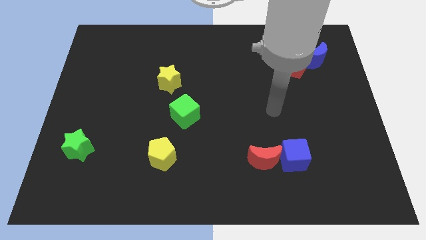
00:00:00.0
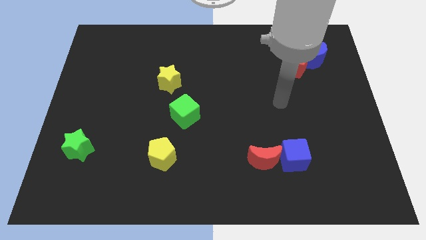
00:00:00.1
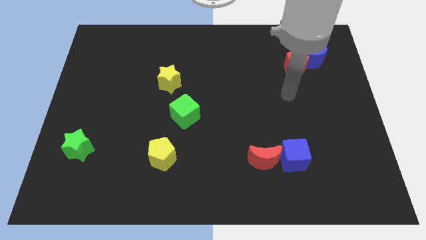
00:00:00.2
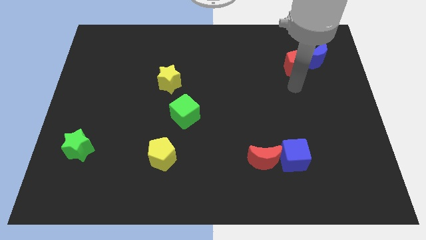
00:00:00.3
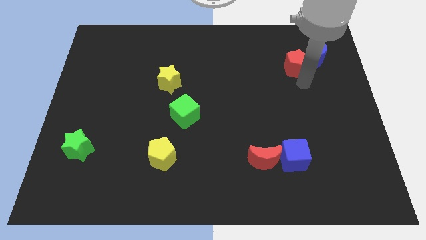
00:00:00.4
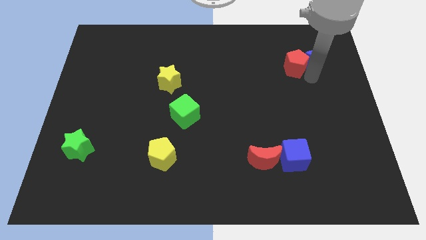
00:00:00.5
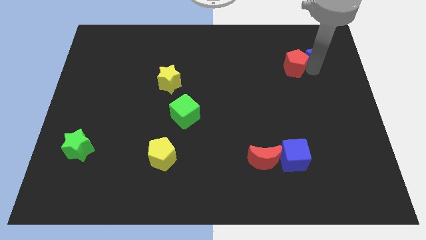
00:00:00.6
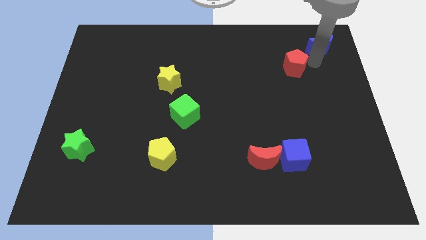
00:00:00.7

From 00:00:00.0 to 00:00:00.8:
pull the red pentagon apart from the blue moon

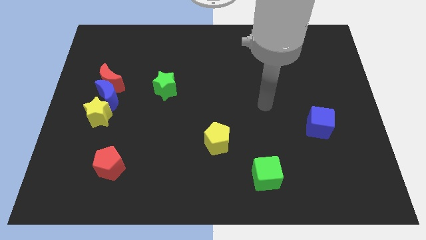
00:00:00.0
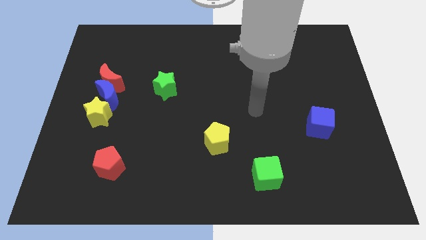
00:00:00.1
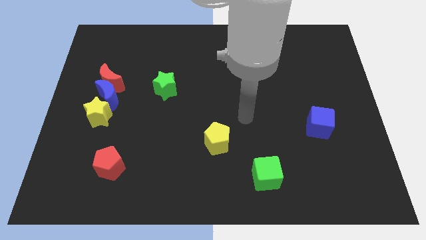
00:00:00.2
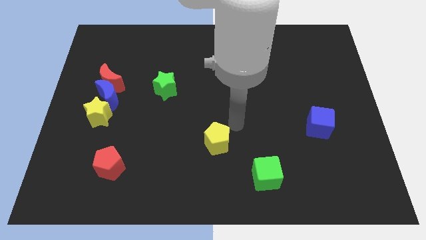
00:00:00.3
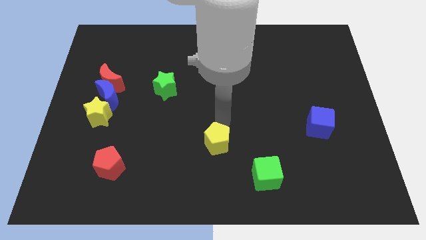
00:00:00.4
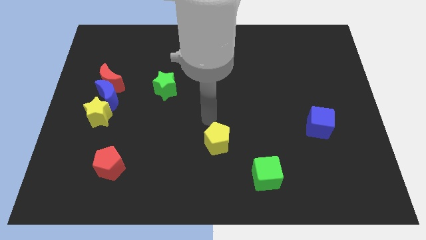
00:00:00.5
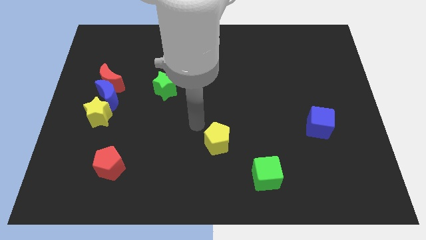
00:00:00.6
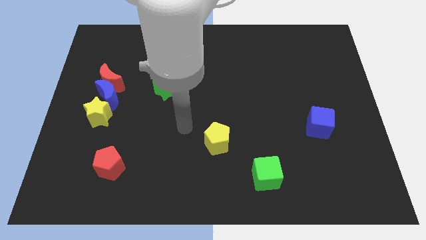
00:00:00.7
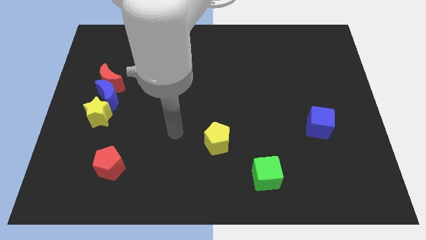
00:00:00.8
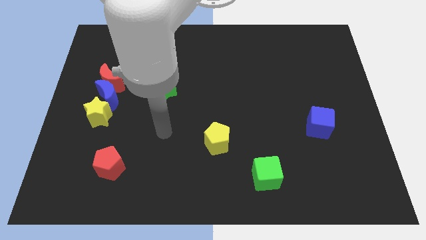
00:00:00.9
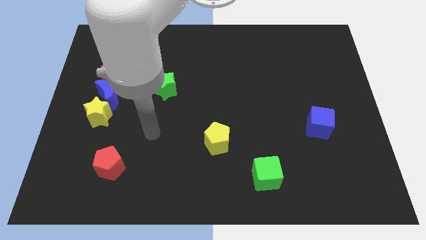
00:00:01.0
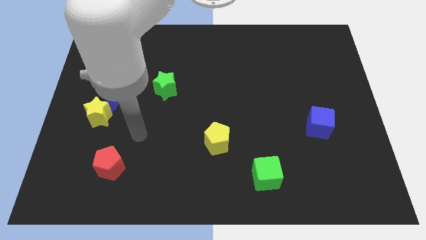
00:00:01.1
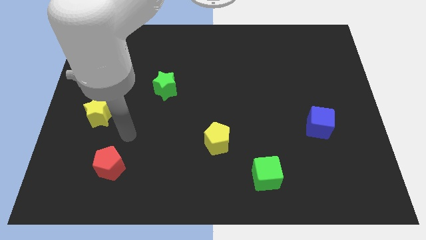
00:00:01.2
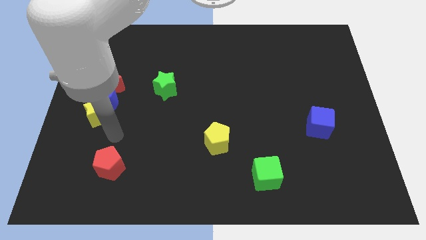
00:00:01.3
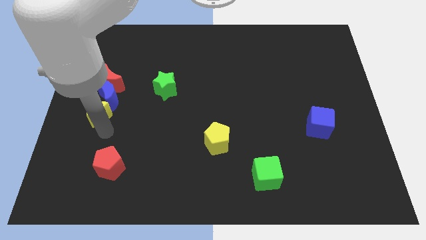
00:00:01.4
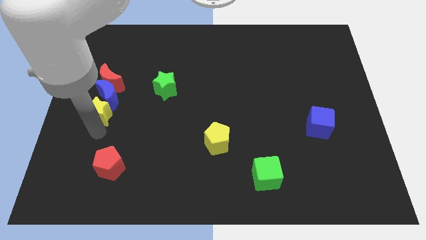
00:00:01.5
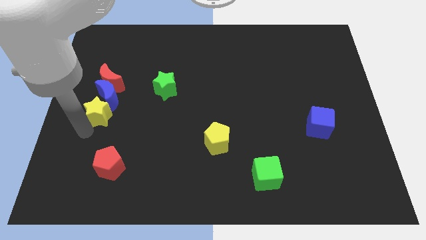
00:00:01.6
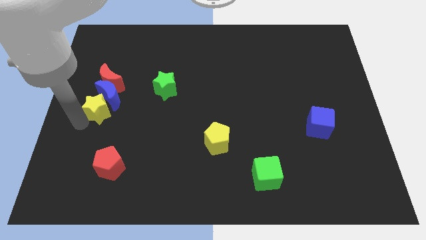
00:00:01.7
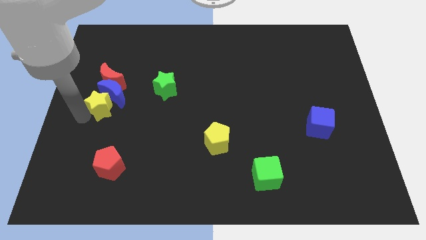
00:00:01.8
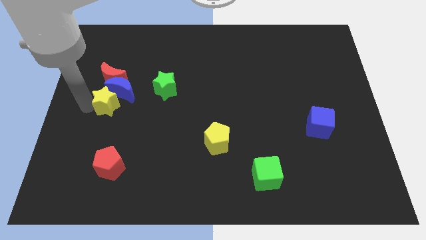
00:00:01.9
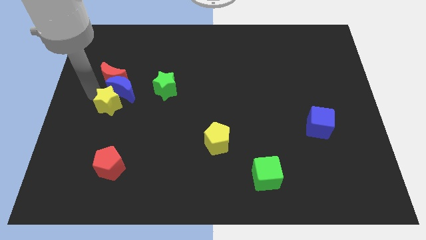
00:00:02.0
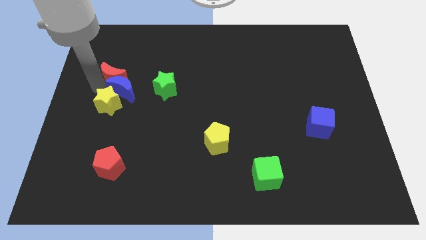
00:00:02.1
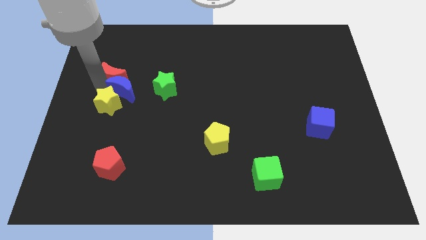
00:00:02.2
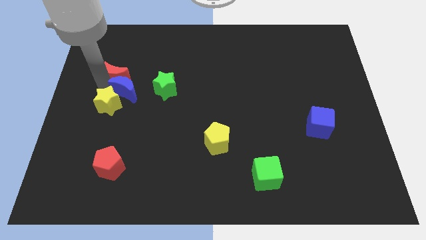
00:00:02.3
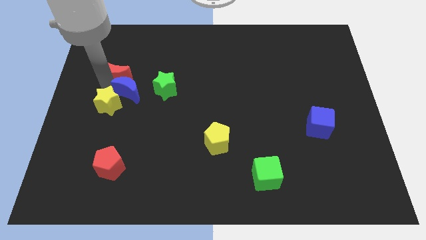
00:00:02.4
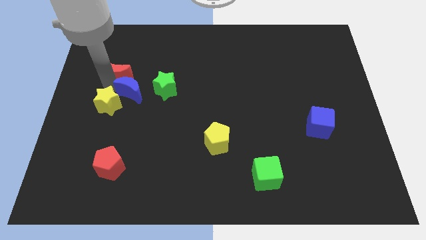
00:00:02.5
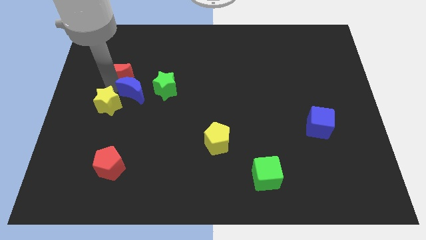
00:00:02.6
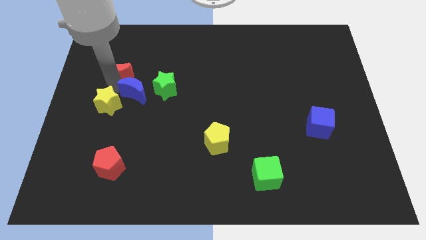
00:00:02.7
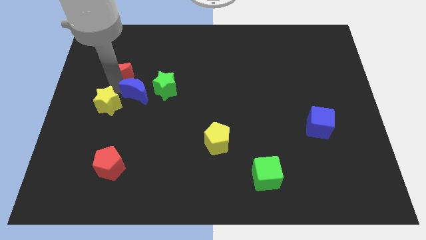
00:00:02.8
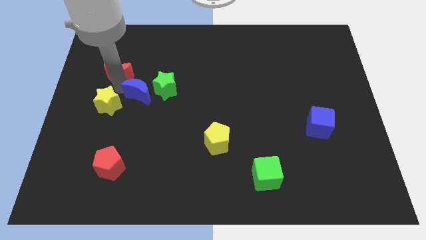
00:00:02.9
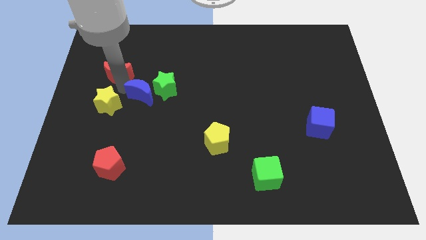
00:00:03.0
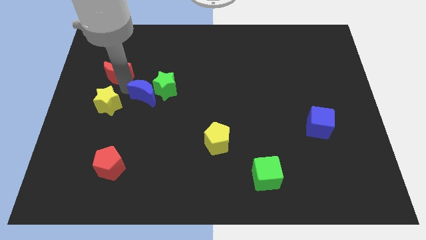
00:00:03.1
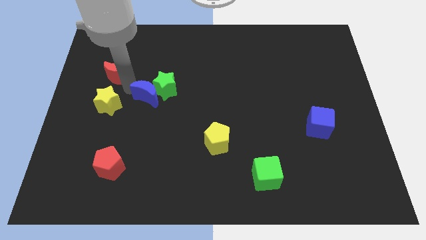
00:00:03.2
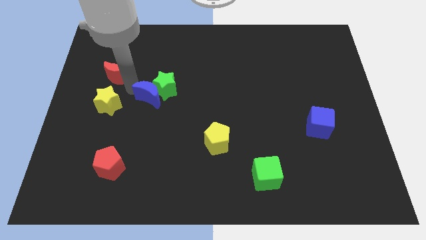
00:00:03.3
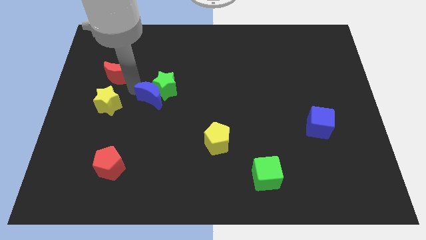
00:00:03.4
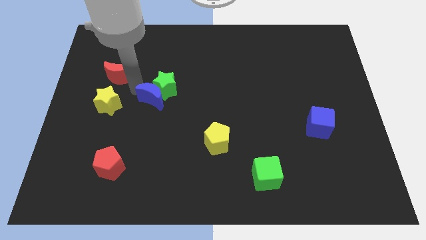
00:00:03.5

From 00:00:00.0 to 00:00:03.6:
separate the blue moon from the red moon and yellow star

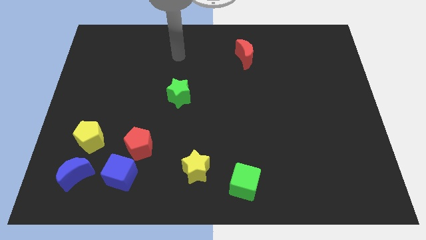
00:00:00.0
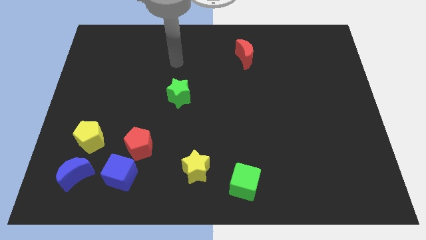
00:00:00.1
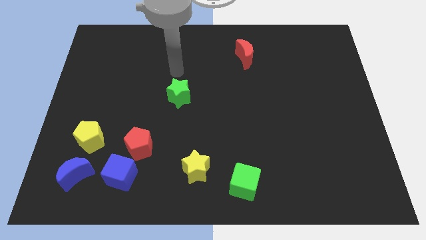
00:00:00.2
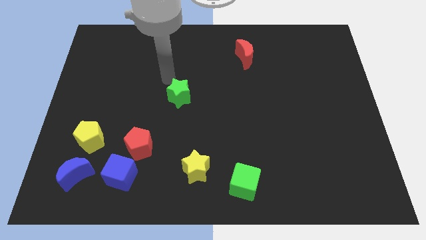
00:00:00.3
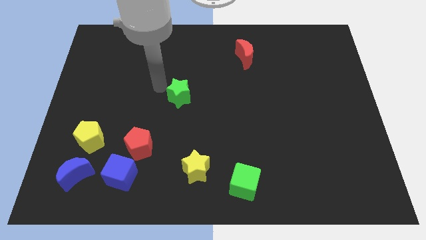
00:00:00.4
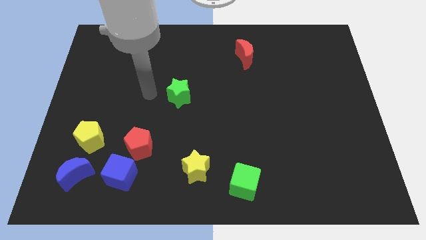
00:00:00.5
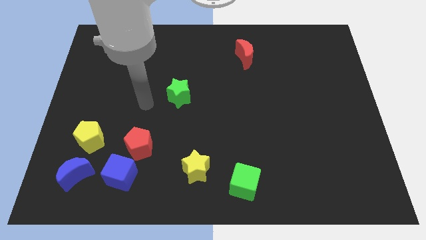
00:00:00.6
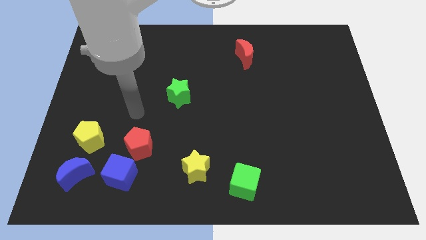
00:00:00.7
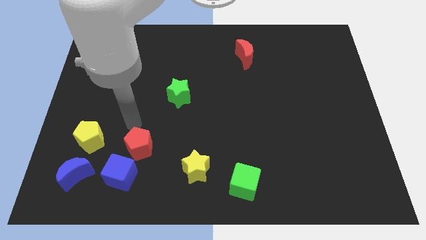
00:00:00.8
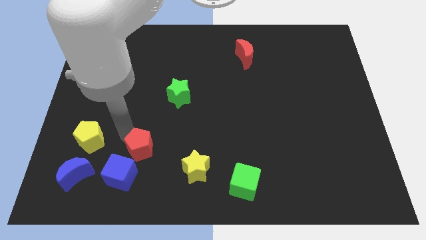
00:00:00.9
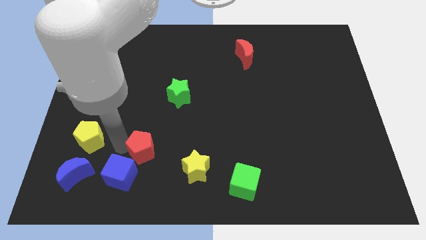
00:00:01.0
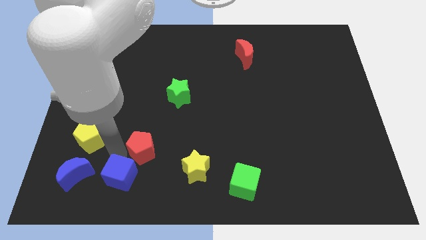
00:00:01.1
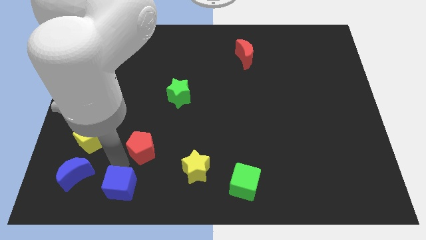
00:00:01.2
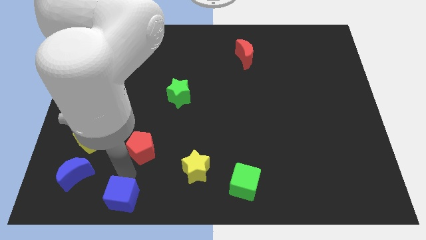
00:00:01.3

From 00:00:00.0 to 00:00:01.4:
pull the red pentagon apart from the blue cube

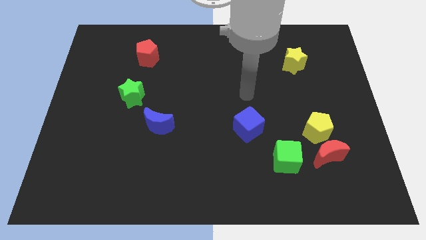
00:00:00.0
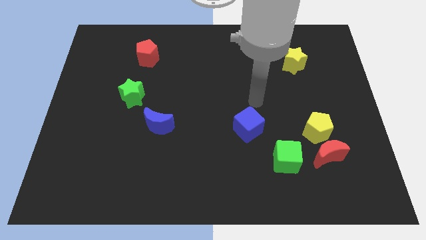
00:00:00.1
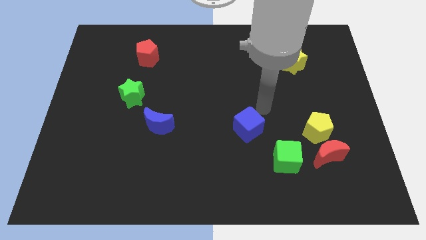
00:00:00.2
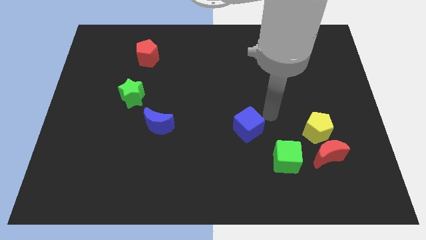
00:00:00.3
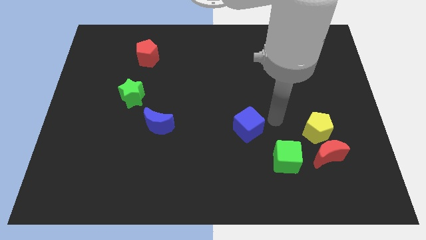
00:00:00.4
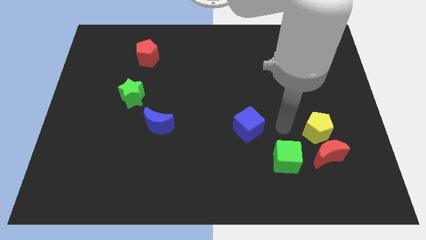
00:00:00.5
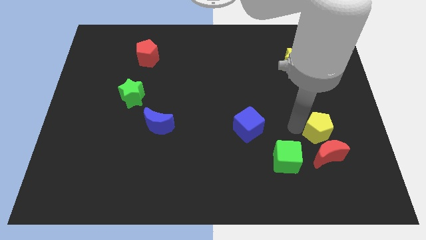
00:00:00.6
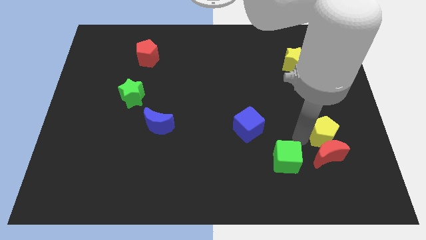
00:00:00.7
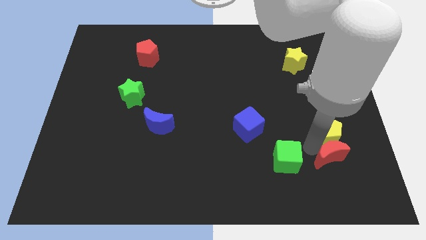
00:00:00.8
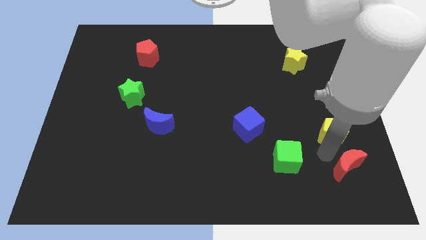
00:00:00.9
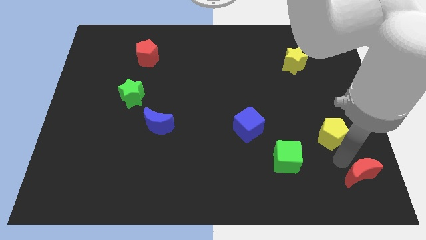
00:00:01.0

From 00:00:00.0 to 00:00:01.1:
separate the yellow pentagon from the red moon

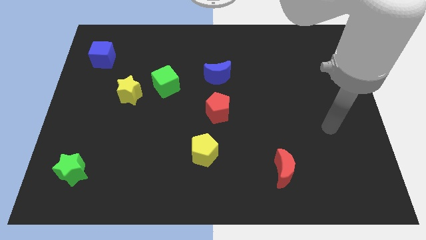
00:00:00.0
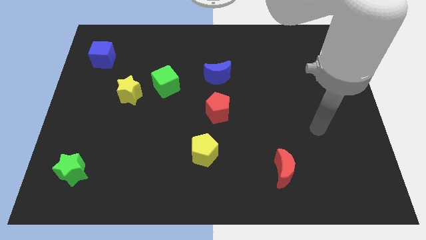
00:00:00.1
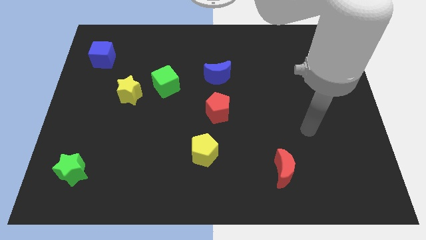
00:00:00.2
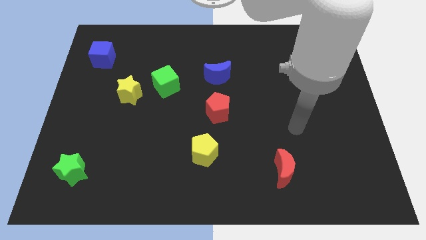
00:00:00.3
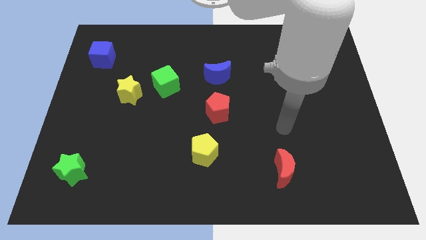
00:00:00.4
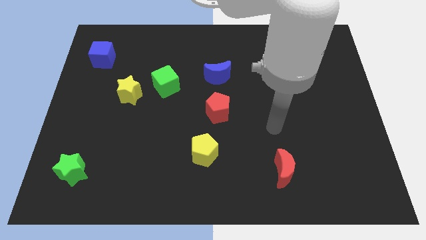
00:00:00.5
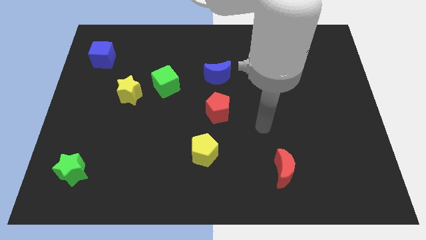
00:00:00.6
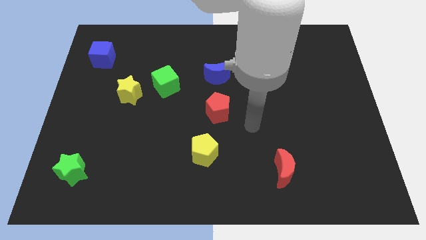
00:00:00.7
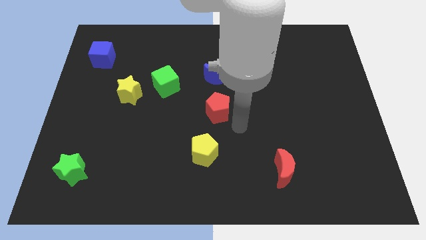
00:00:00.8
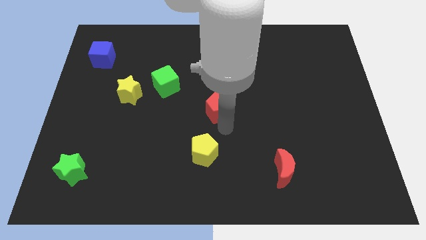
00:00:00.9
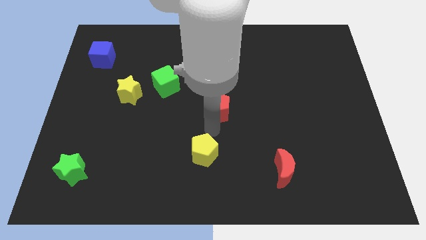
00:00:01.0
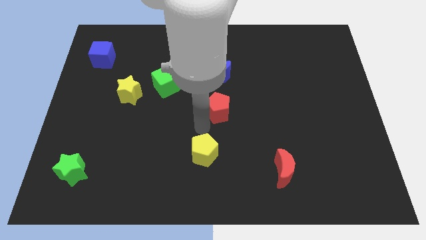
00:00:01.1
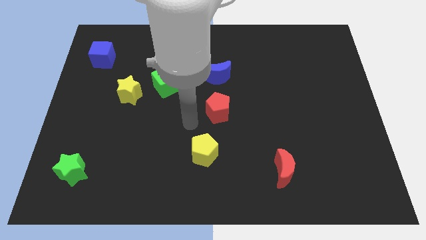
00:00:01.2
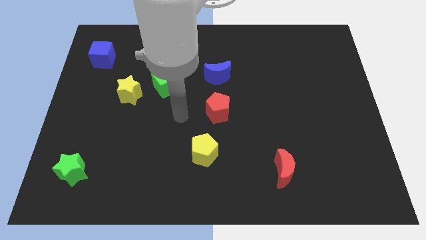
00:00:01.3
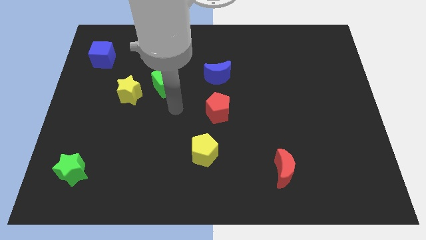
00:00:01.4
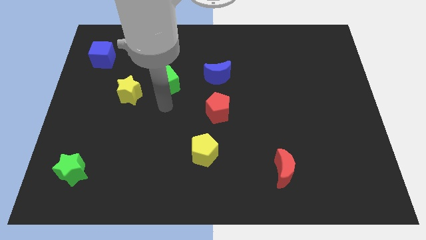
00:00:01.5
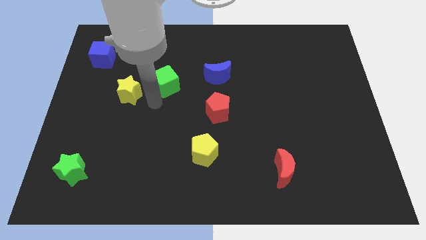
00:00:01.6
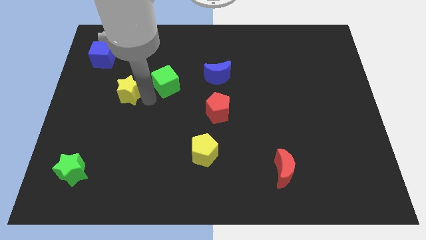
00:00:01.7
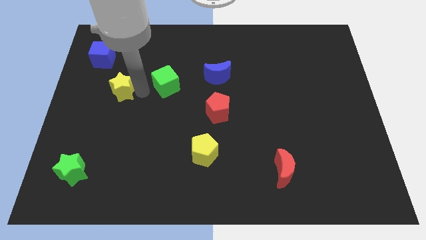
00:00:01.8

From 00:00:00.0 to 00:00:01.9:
separate the green cube from the yellow star

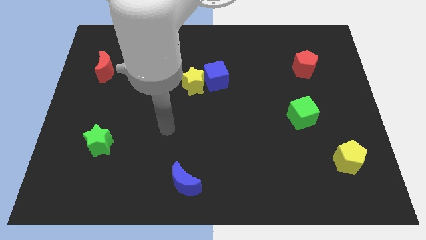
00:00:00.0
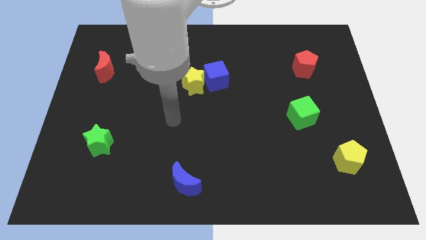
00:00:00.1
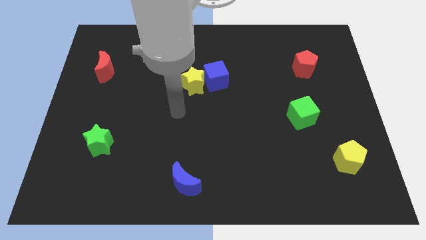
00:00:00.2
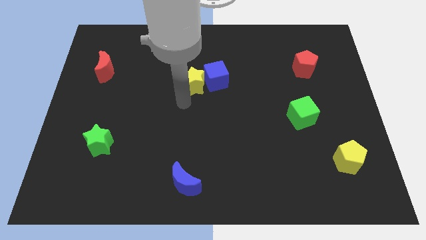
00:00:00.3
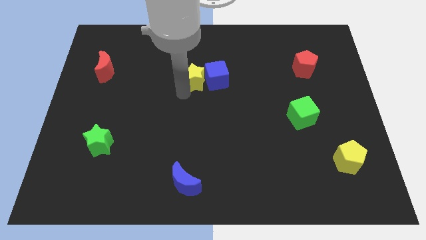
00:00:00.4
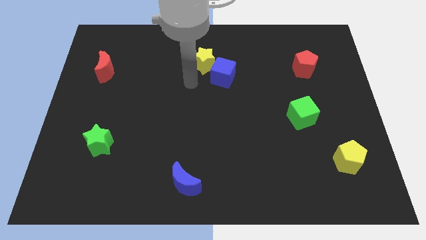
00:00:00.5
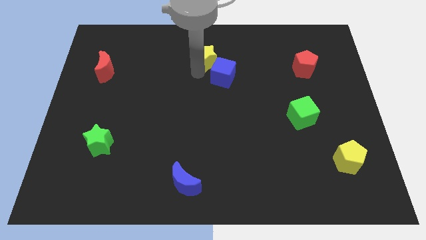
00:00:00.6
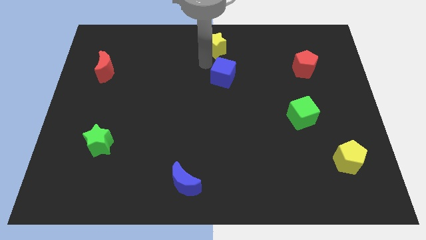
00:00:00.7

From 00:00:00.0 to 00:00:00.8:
move the blue cube away from the yellow star
